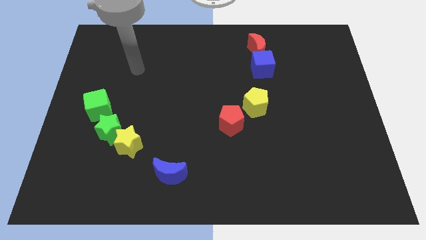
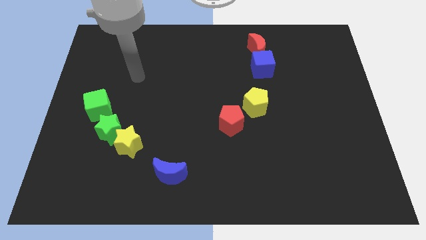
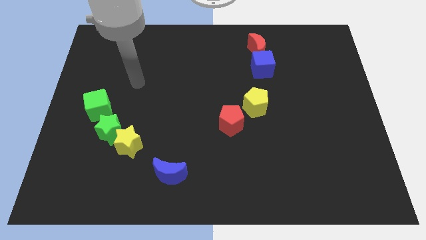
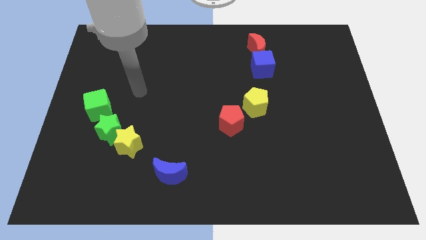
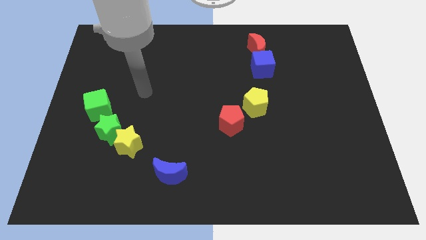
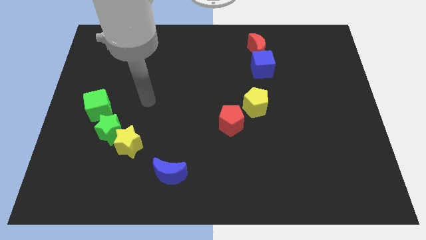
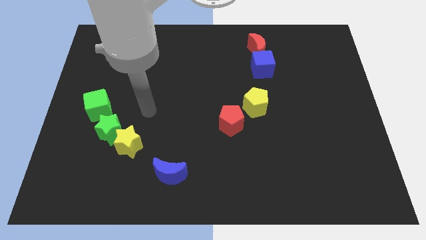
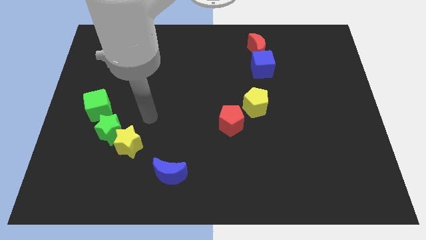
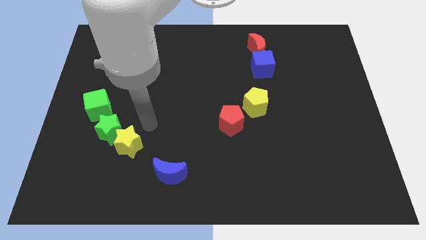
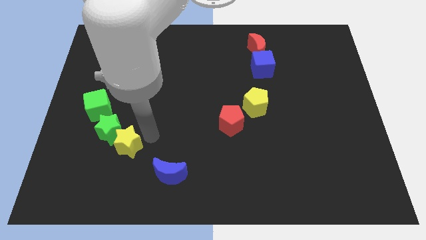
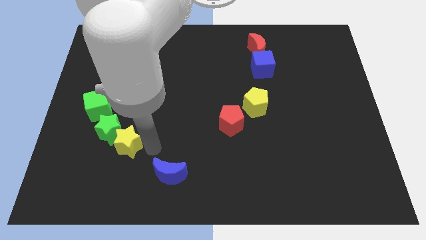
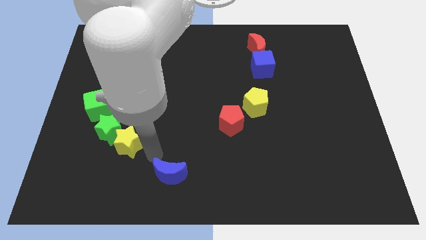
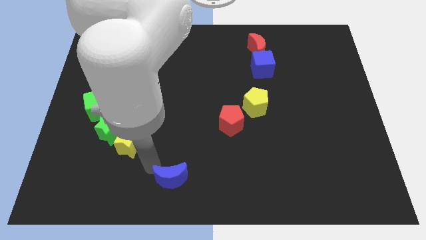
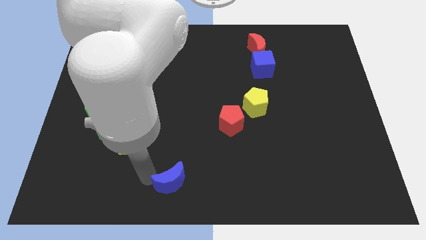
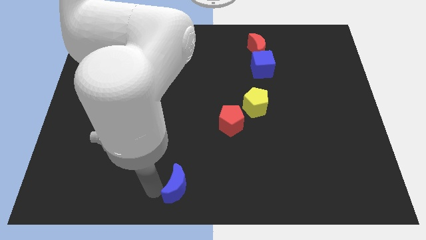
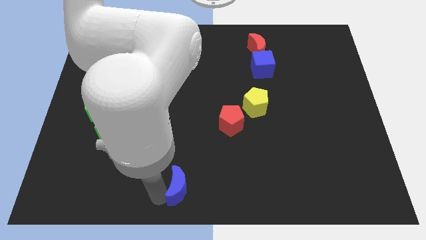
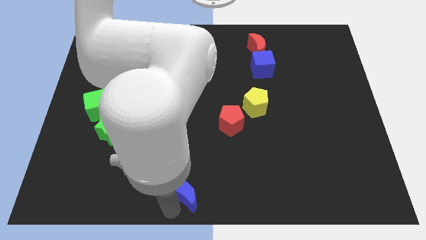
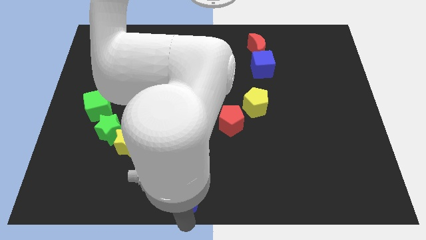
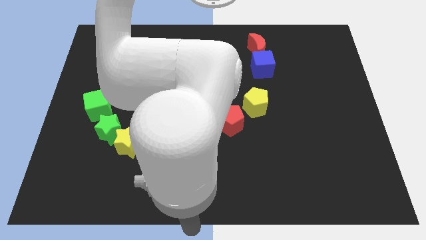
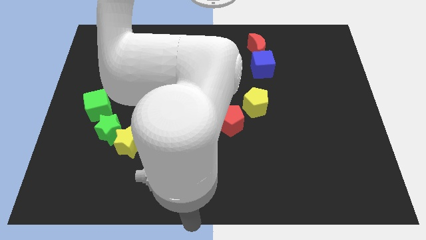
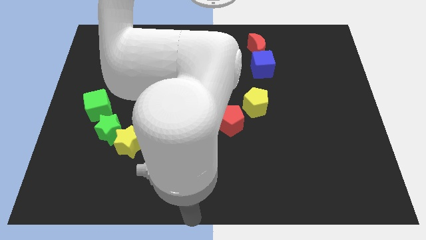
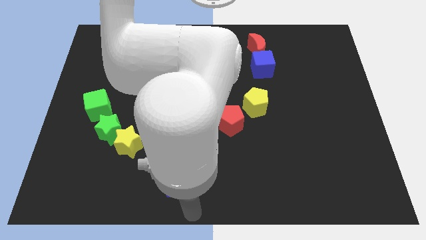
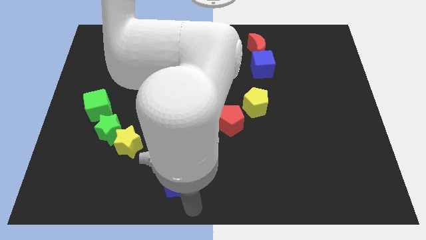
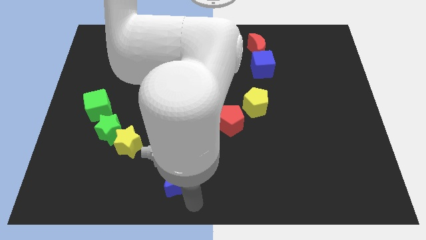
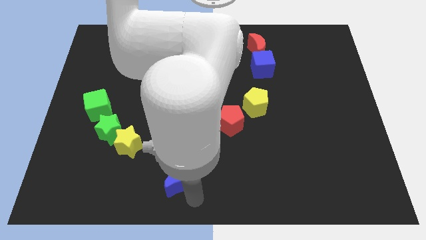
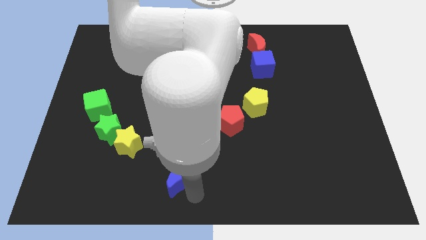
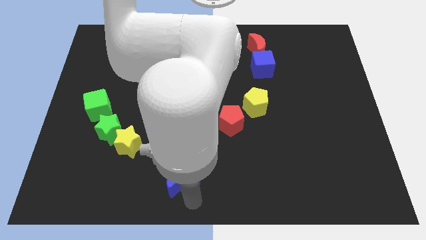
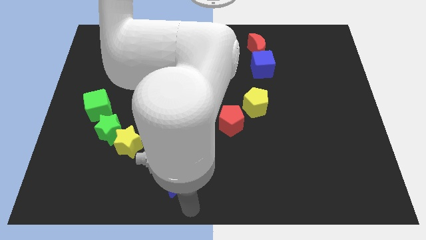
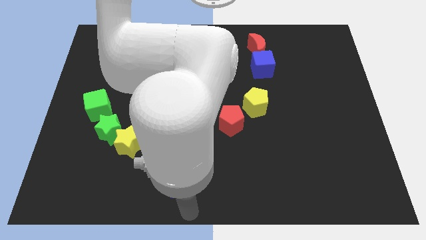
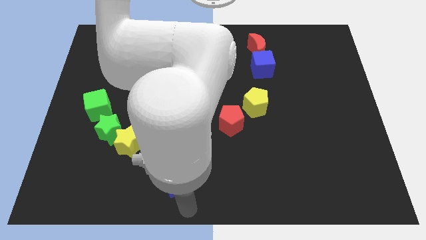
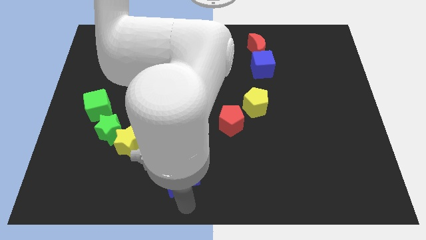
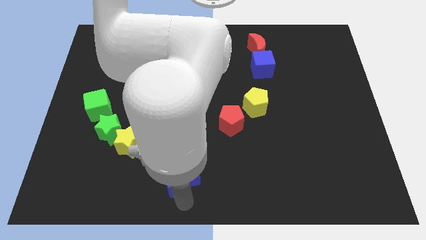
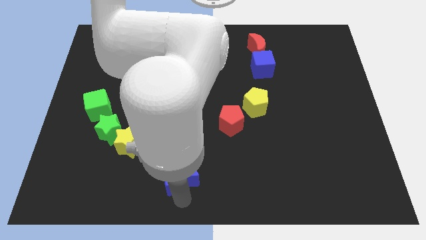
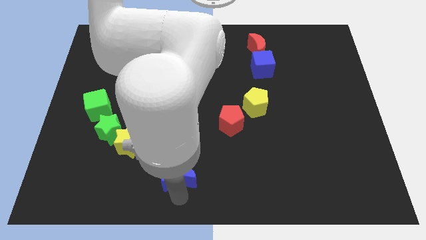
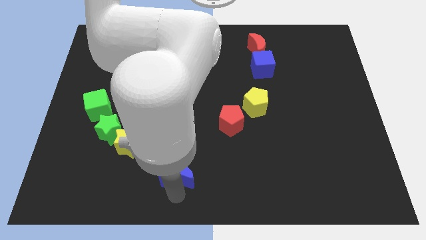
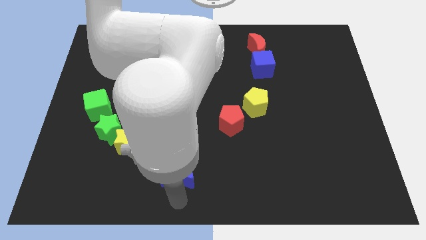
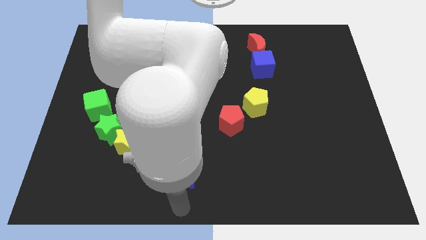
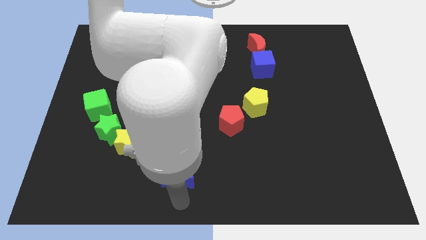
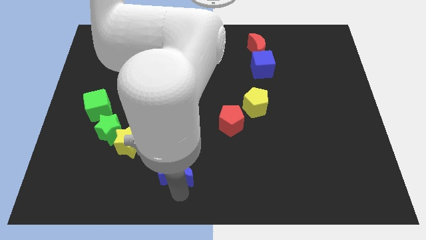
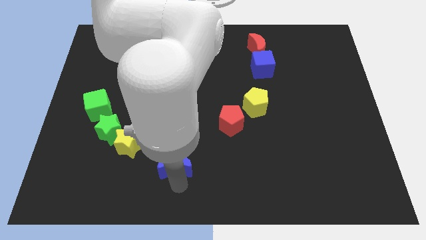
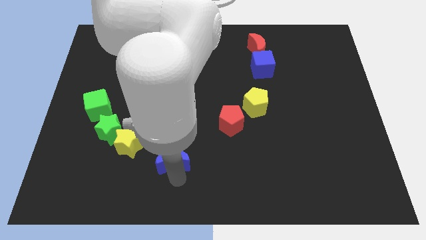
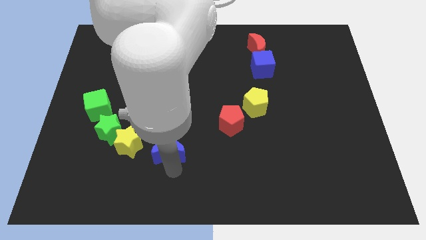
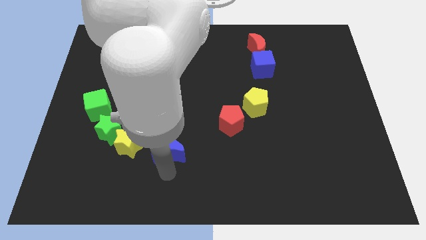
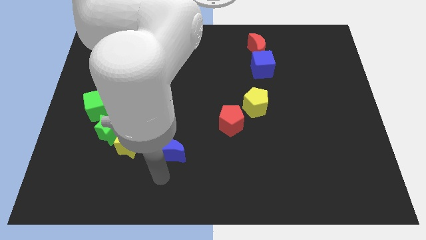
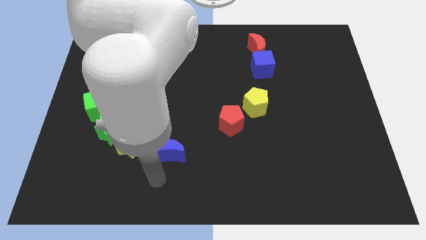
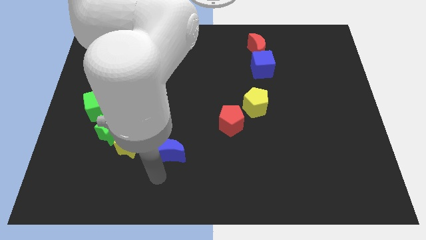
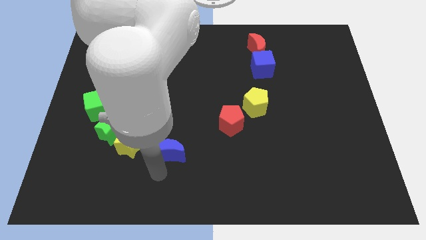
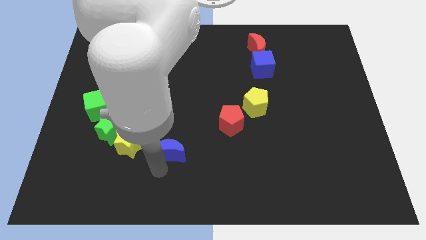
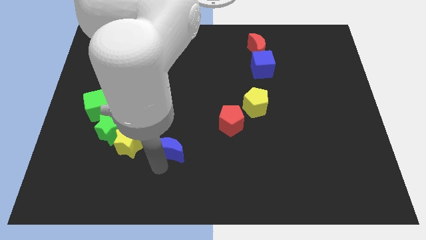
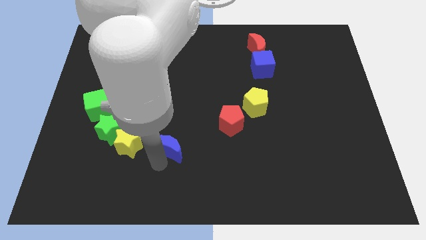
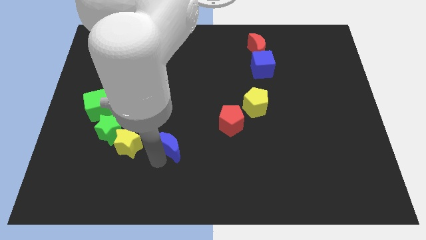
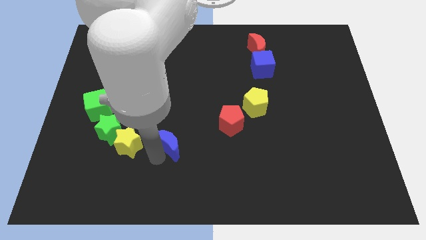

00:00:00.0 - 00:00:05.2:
move the blue moon somewhat upwards

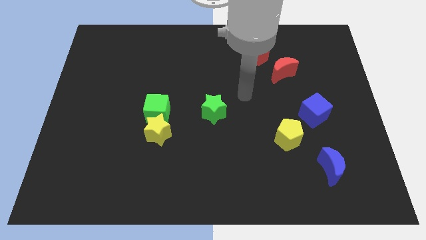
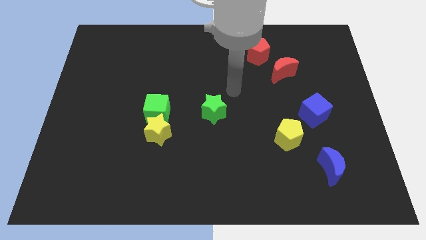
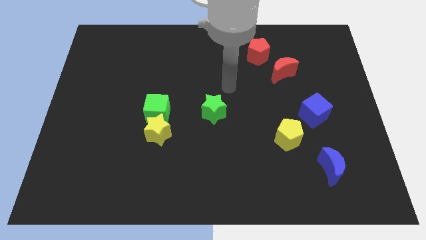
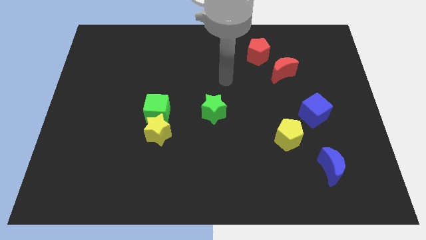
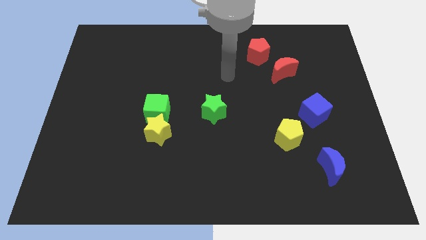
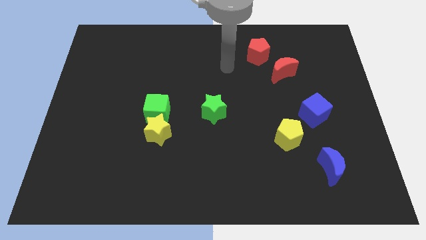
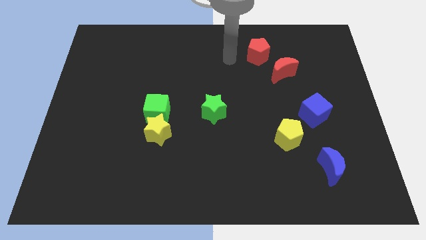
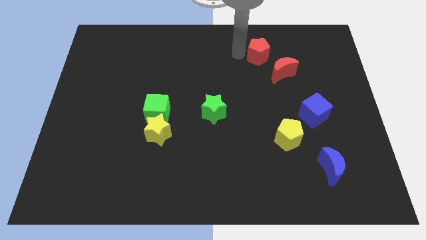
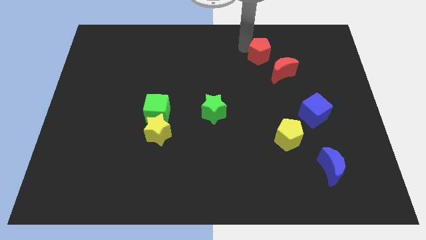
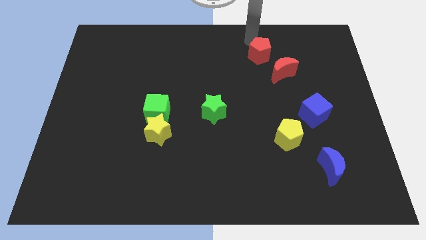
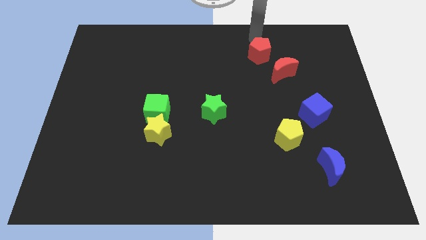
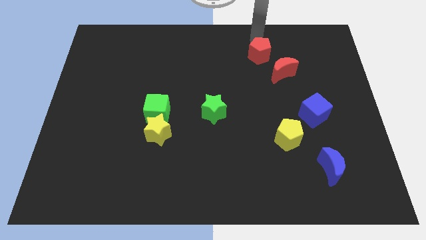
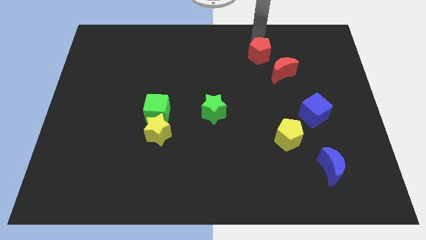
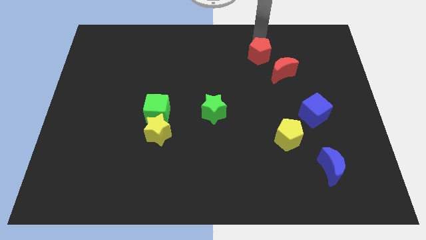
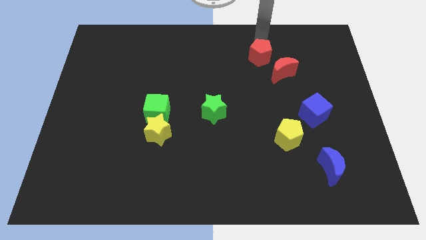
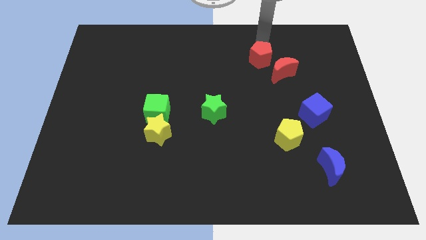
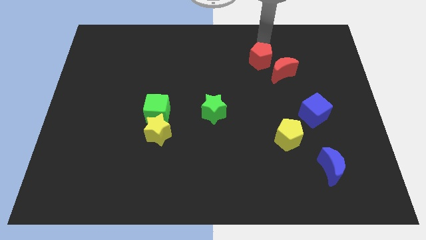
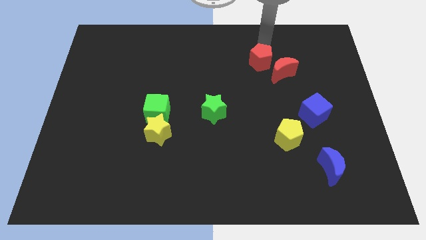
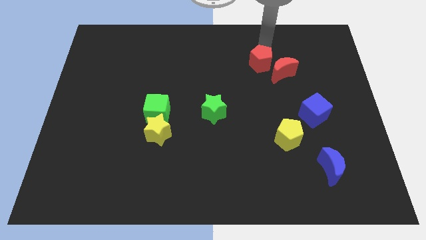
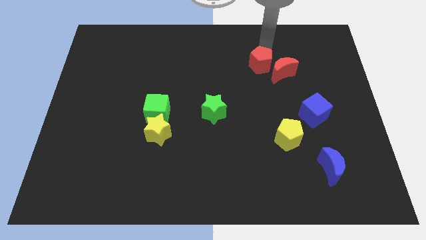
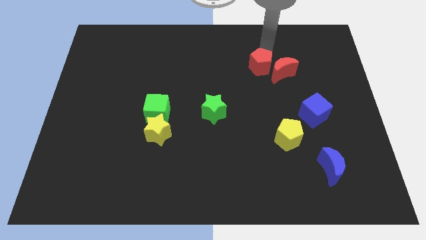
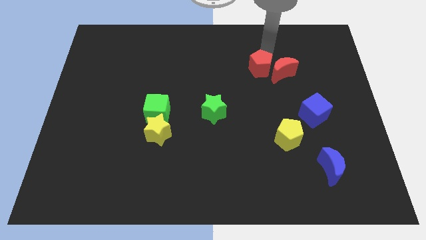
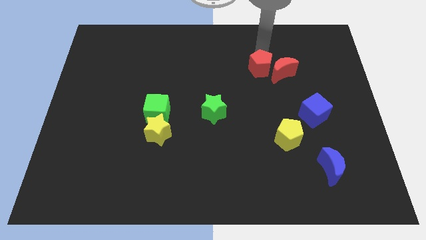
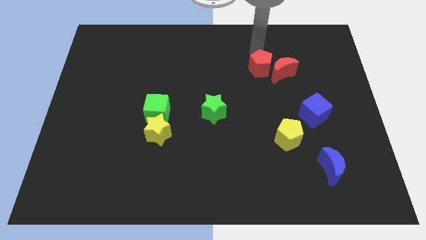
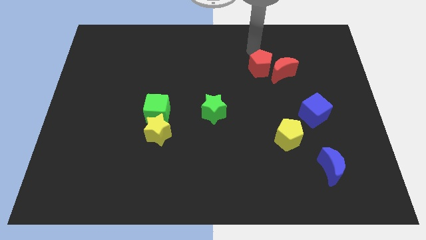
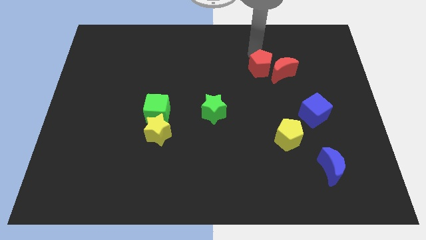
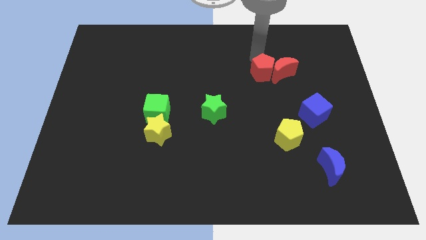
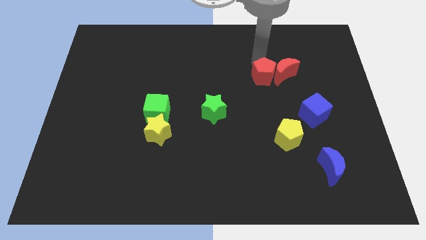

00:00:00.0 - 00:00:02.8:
slide the red pentagon down a little

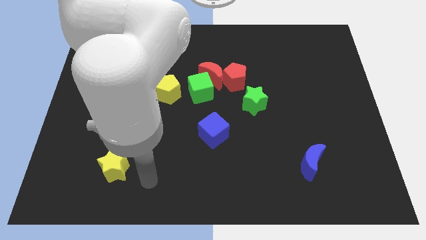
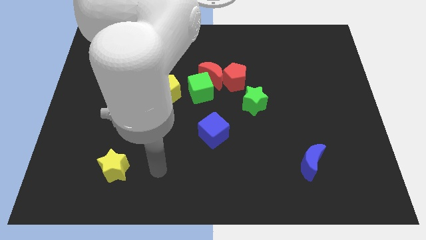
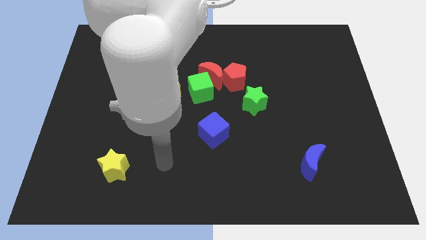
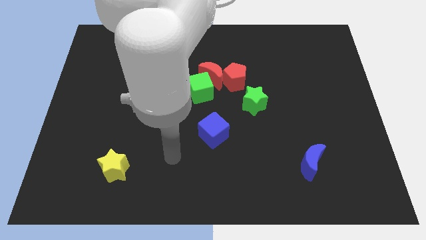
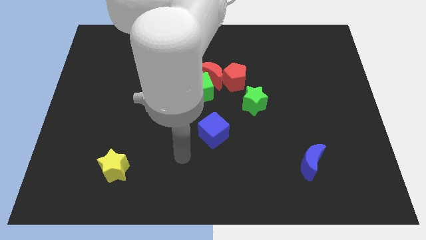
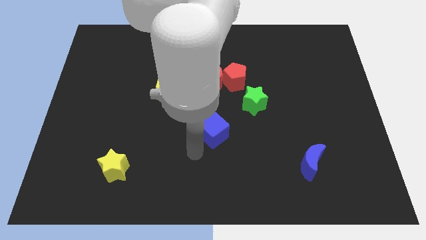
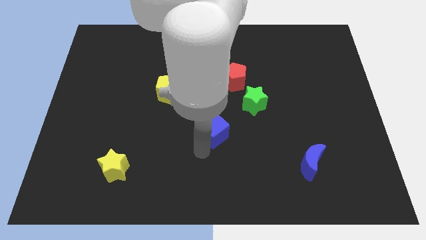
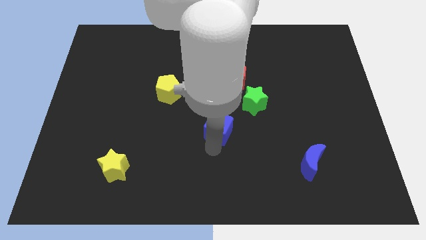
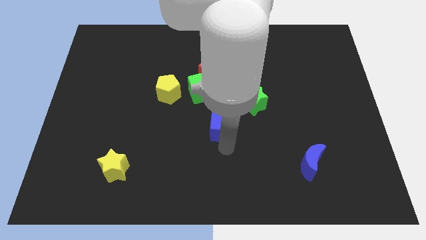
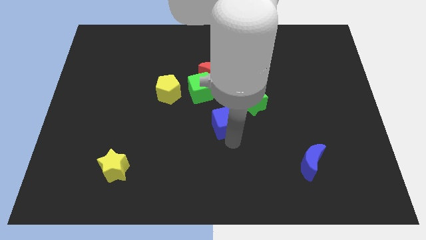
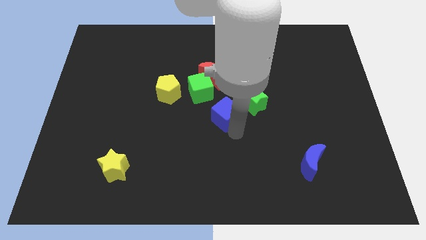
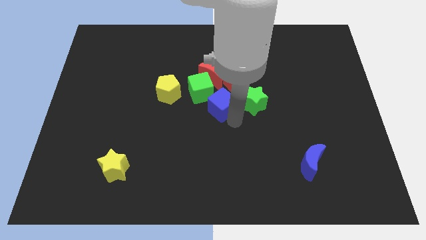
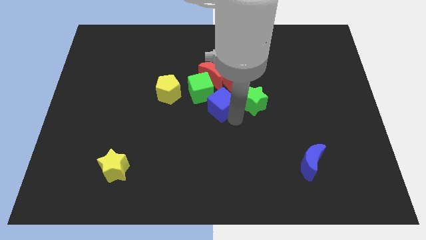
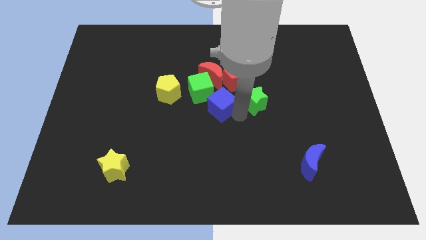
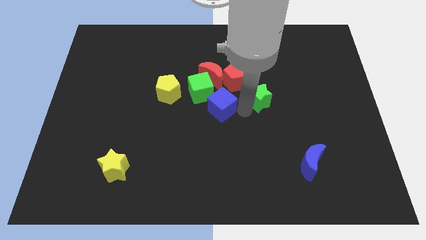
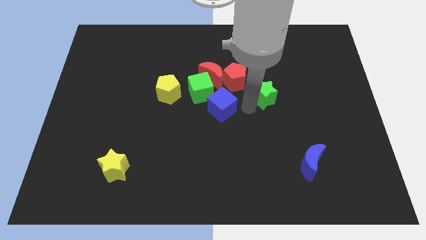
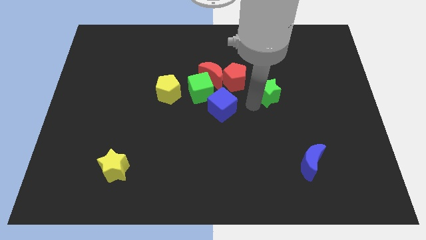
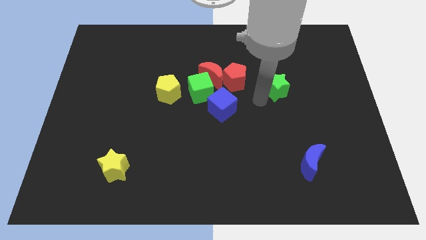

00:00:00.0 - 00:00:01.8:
push the green star up and right a little bit
